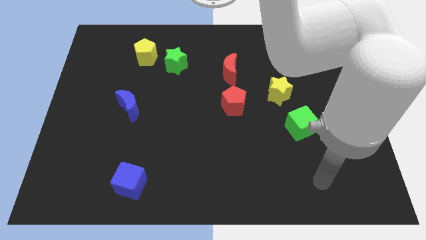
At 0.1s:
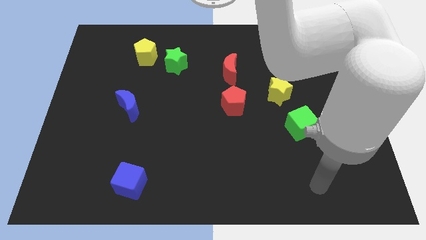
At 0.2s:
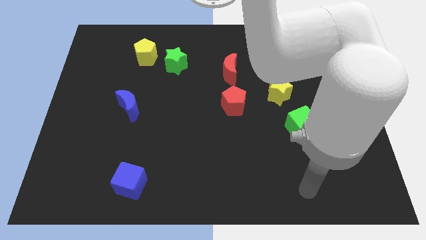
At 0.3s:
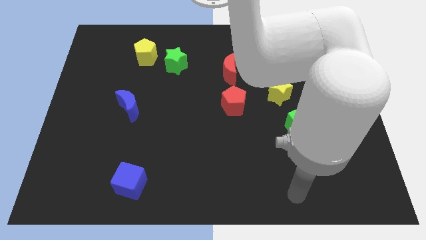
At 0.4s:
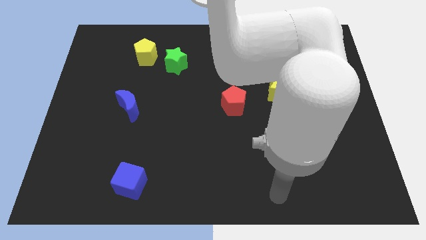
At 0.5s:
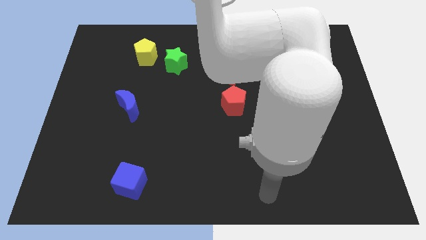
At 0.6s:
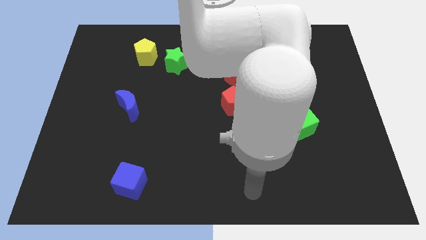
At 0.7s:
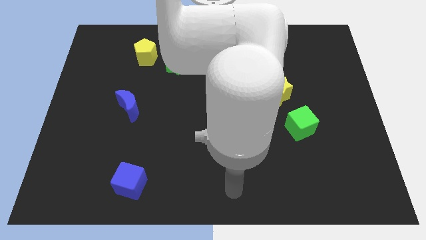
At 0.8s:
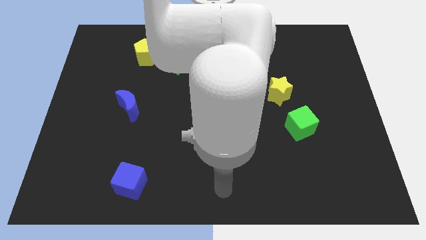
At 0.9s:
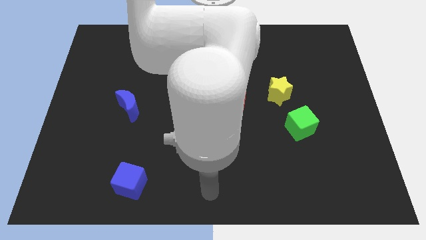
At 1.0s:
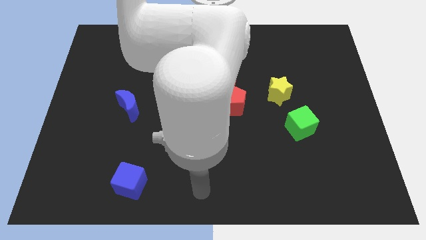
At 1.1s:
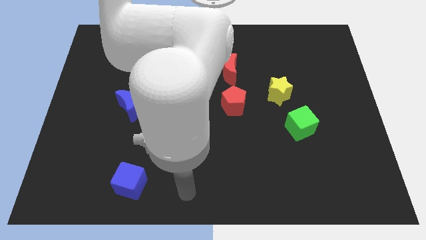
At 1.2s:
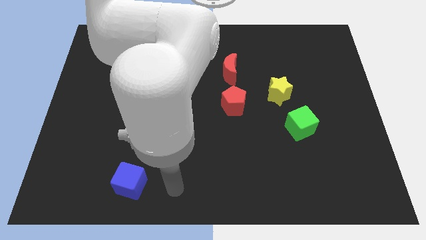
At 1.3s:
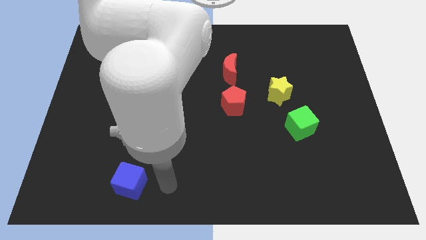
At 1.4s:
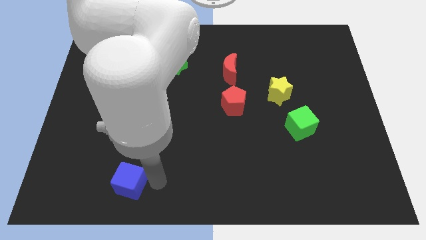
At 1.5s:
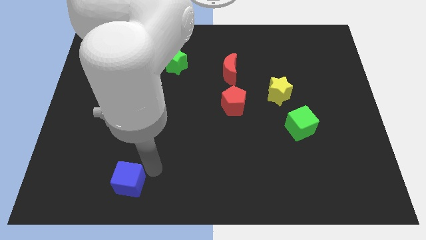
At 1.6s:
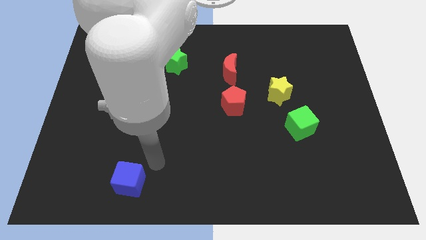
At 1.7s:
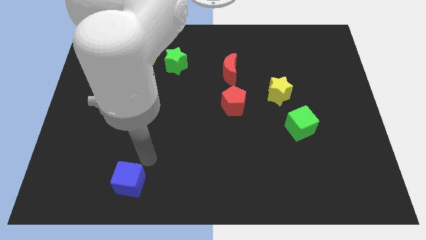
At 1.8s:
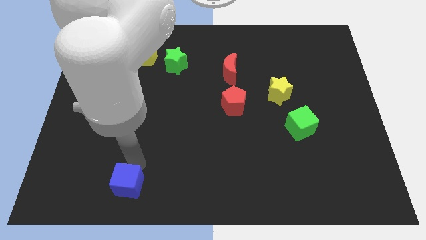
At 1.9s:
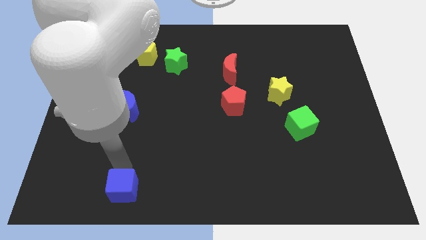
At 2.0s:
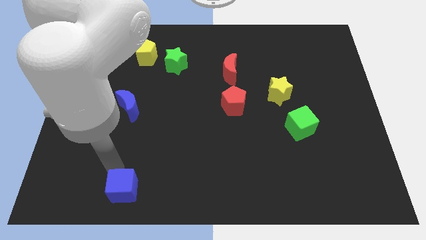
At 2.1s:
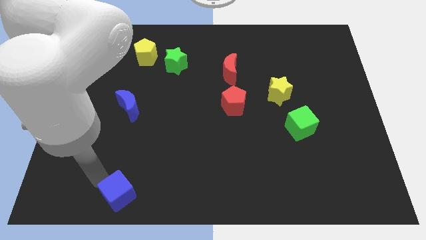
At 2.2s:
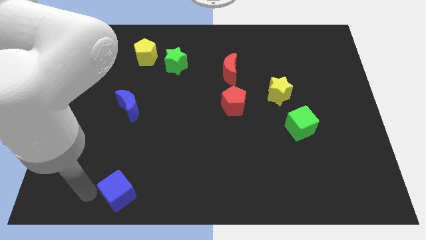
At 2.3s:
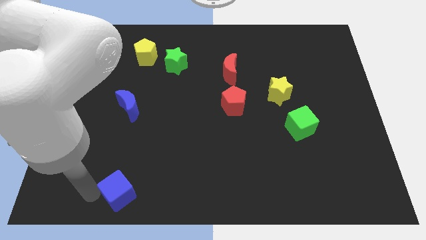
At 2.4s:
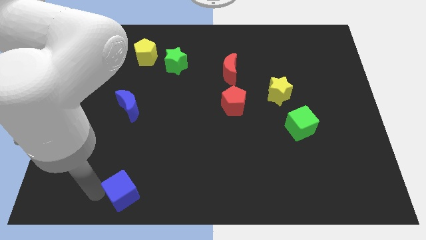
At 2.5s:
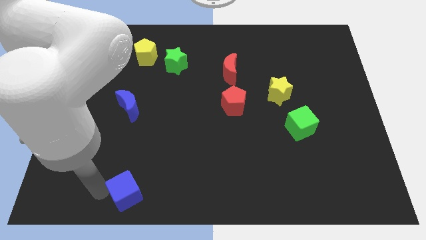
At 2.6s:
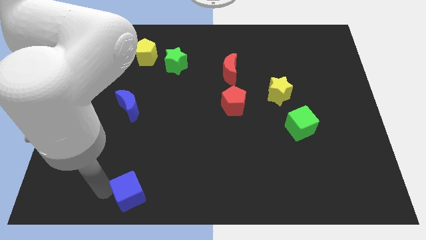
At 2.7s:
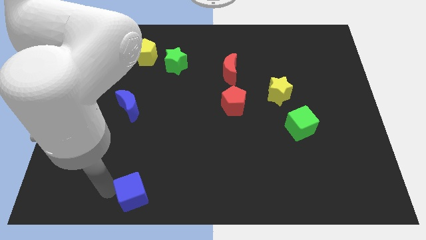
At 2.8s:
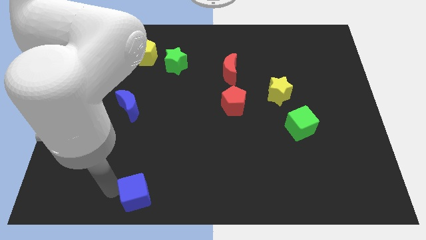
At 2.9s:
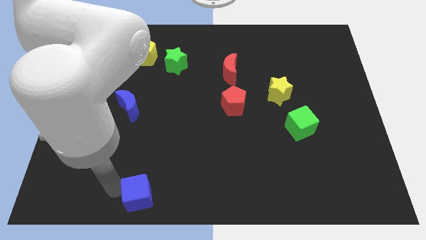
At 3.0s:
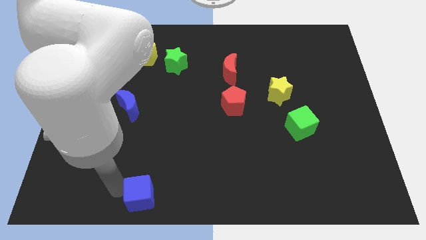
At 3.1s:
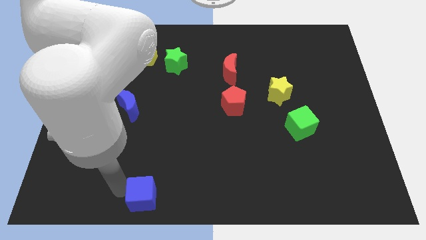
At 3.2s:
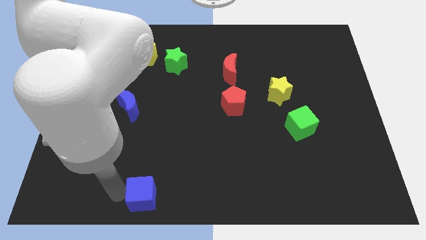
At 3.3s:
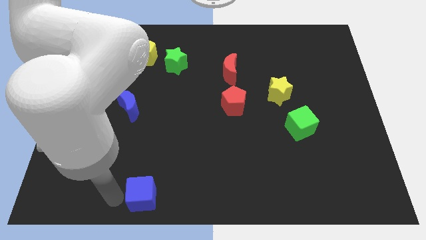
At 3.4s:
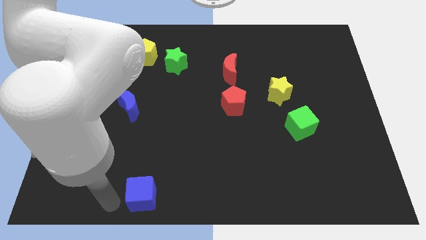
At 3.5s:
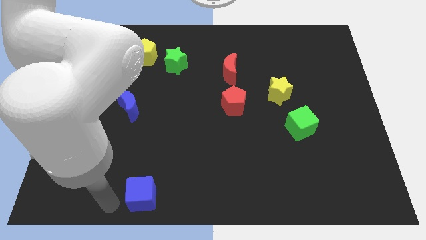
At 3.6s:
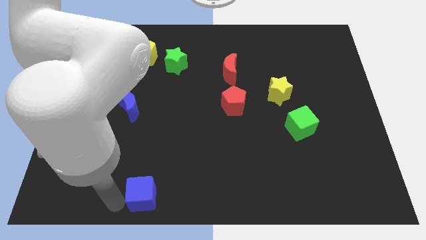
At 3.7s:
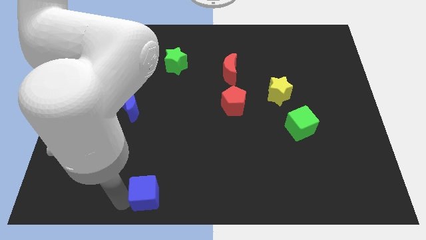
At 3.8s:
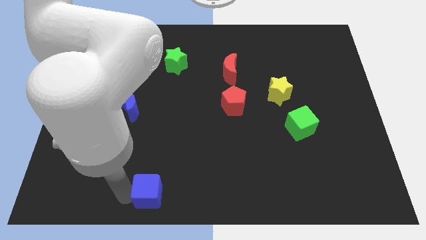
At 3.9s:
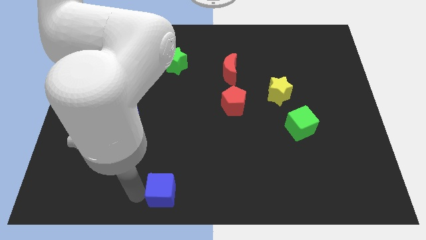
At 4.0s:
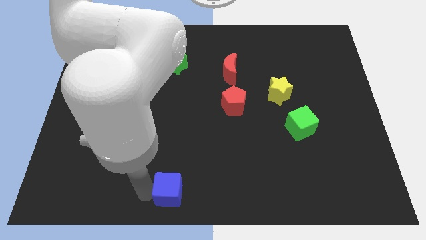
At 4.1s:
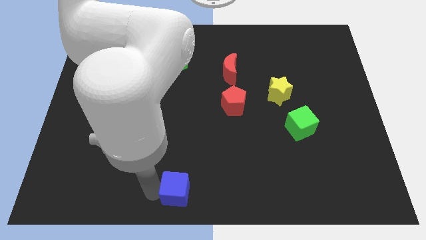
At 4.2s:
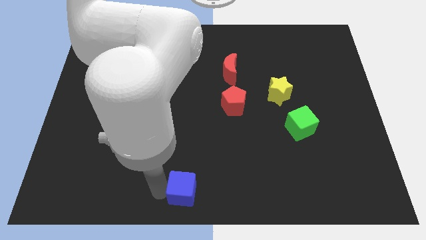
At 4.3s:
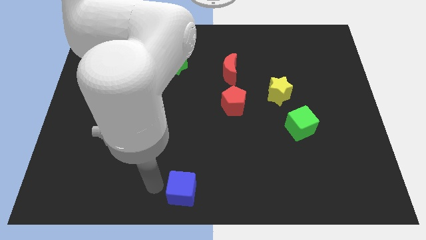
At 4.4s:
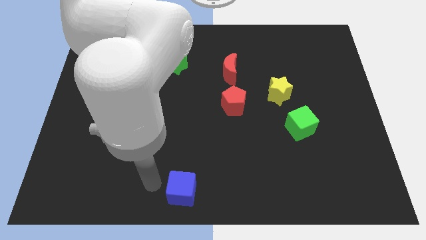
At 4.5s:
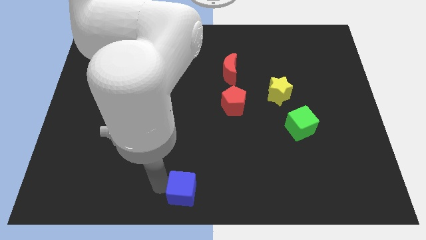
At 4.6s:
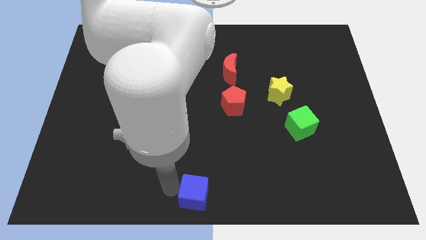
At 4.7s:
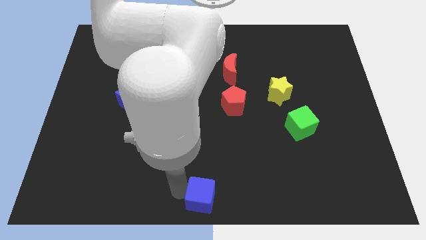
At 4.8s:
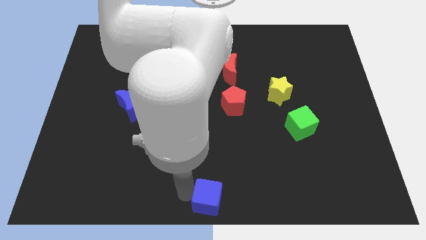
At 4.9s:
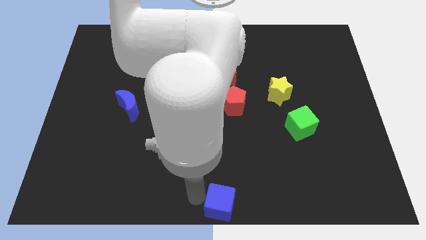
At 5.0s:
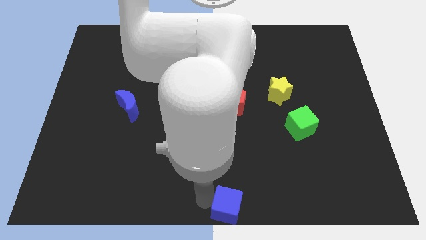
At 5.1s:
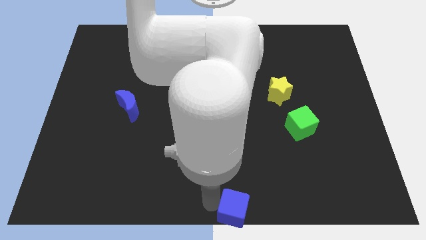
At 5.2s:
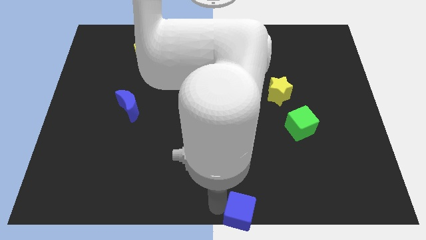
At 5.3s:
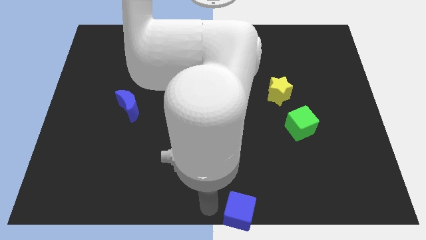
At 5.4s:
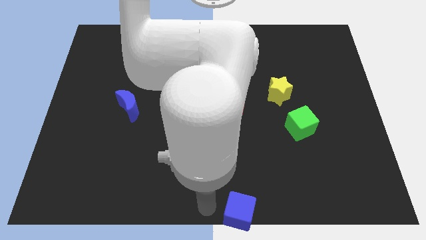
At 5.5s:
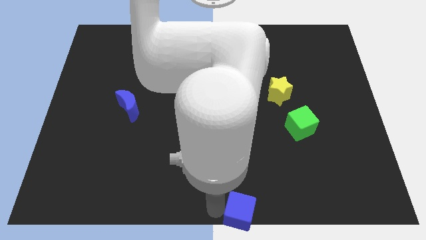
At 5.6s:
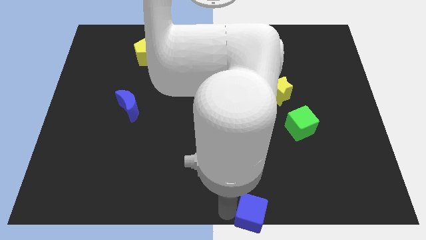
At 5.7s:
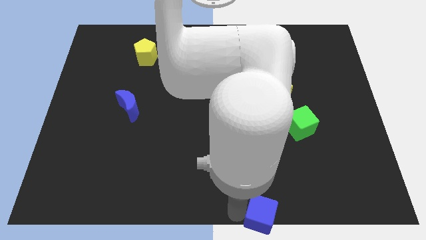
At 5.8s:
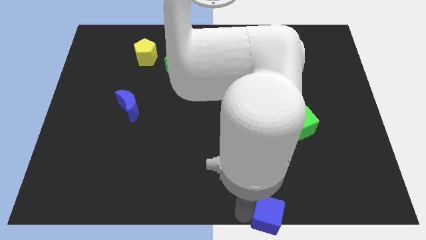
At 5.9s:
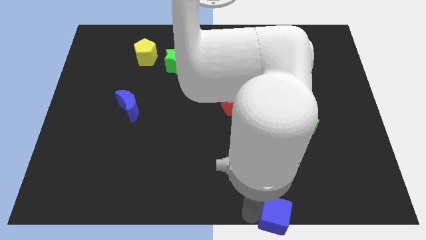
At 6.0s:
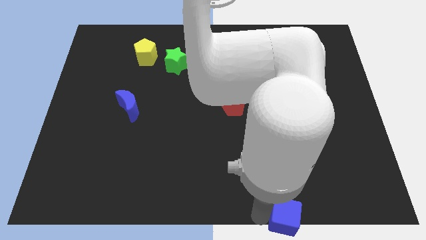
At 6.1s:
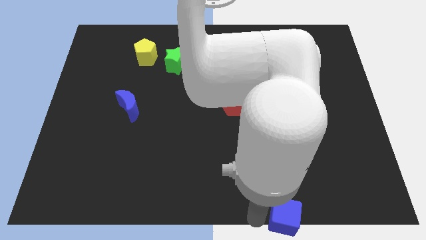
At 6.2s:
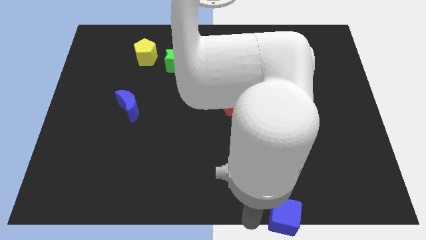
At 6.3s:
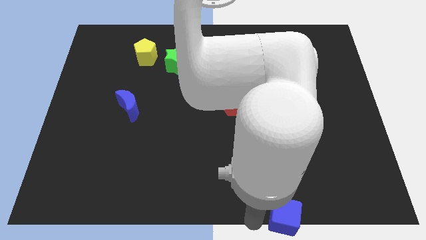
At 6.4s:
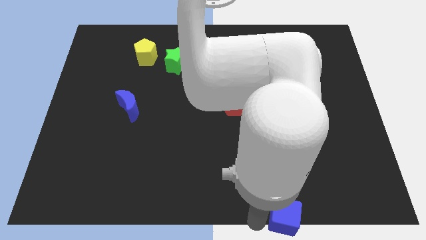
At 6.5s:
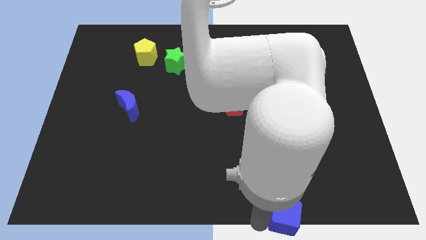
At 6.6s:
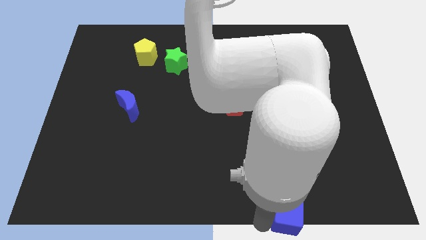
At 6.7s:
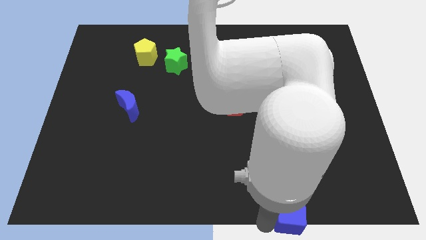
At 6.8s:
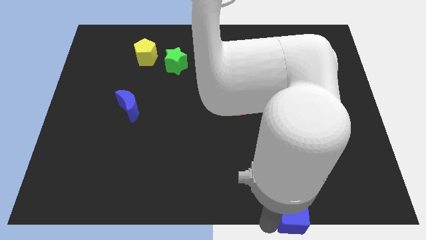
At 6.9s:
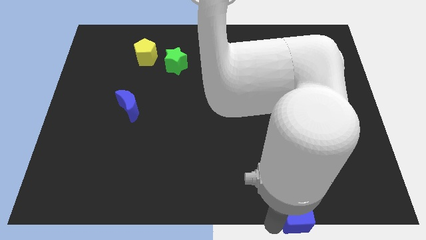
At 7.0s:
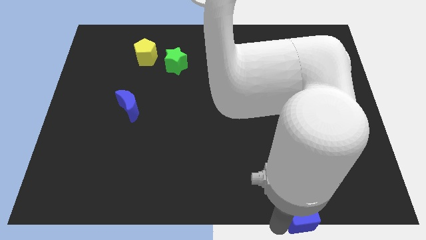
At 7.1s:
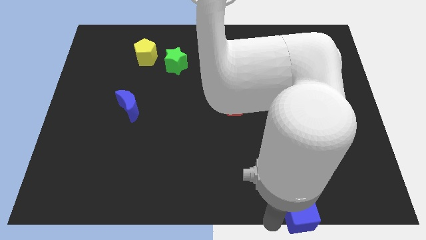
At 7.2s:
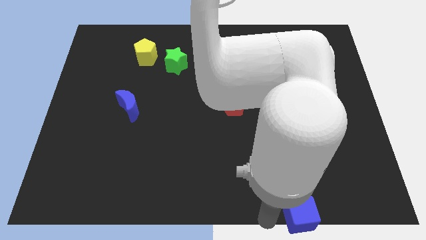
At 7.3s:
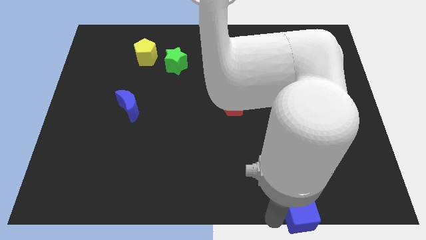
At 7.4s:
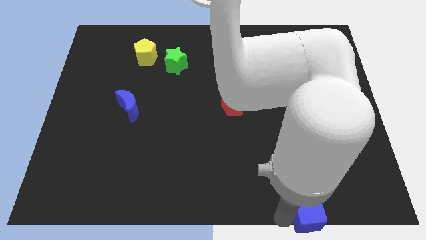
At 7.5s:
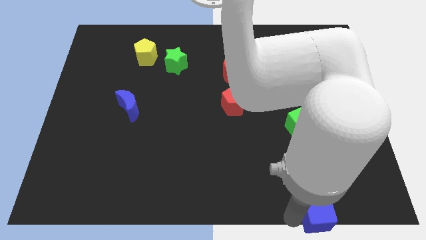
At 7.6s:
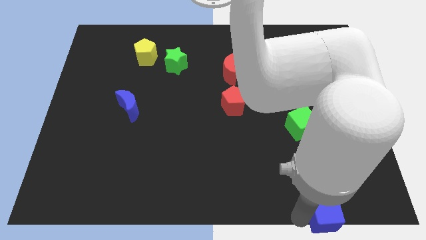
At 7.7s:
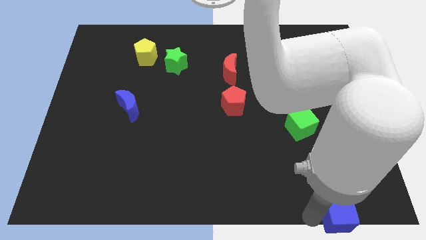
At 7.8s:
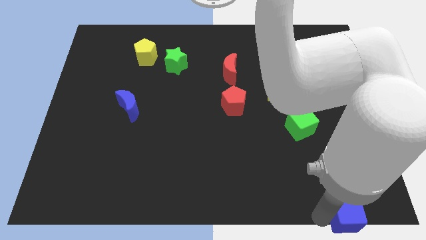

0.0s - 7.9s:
push the blue cube to the lower right corner
